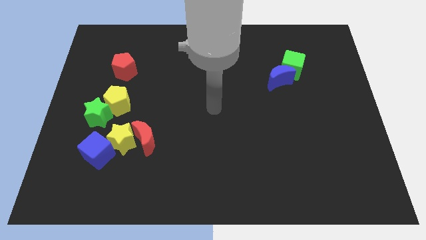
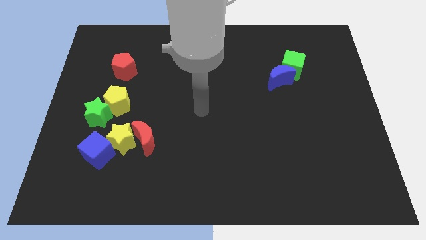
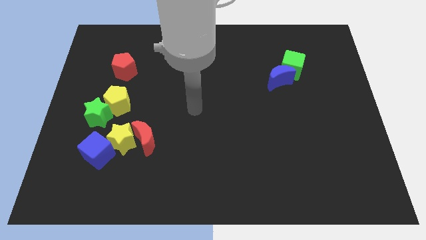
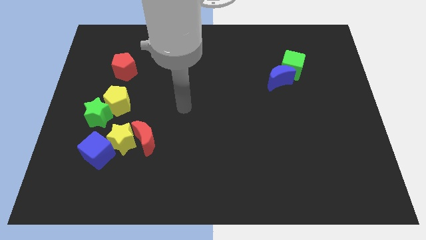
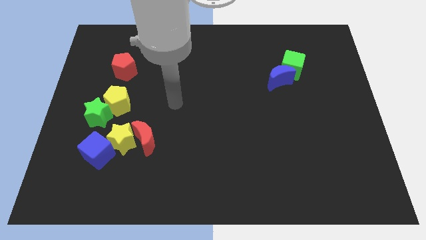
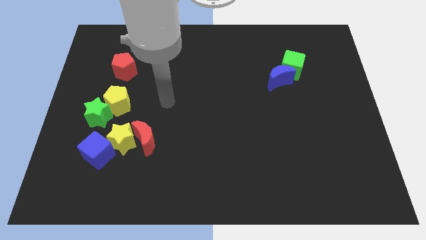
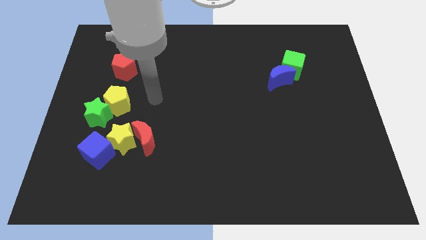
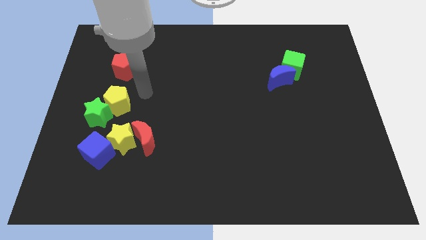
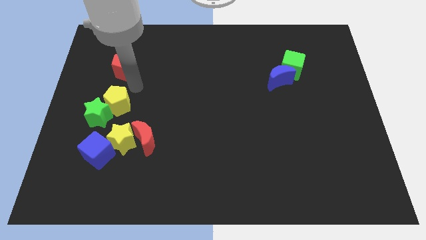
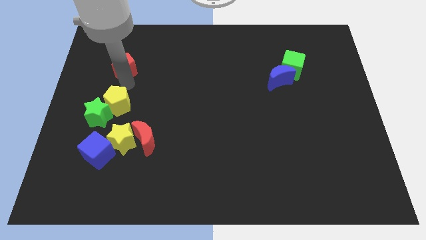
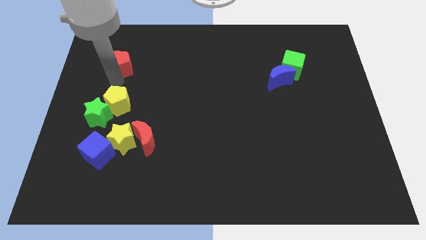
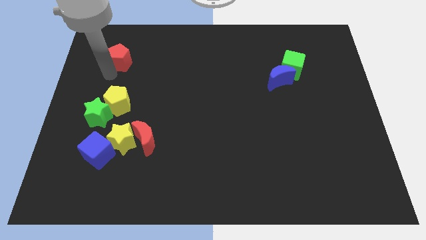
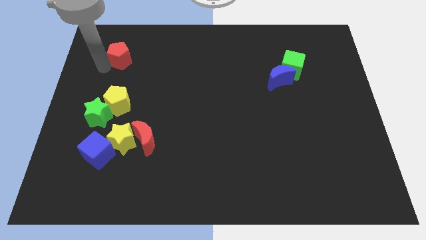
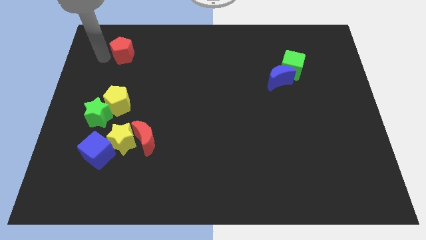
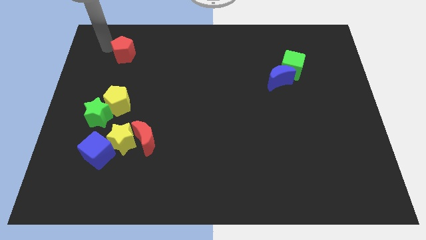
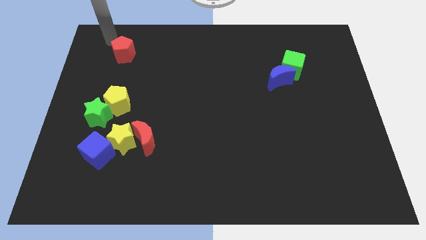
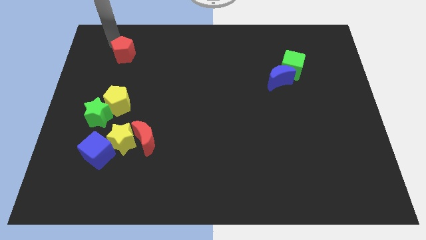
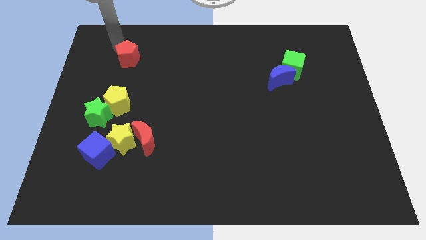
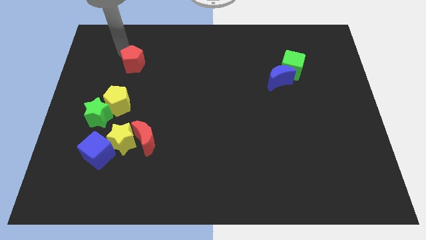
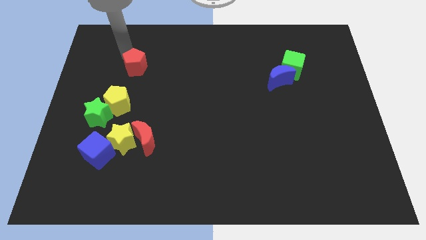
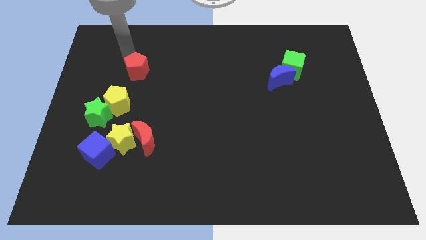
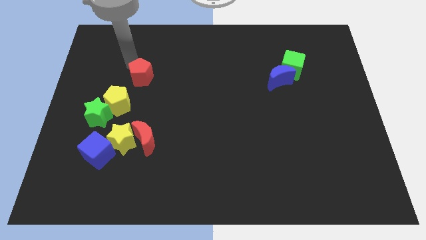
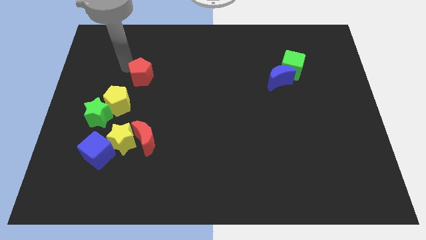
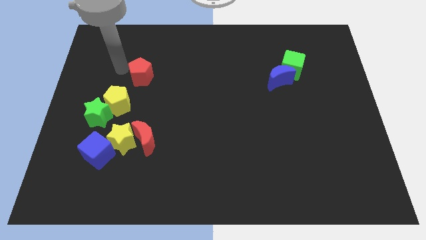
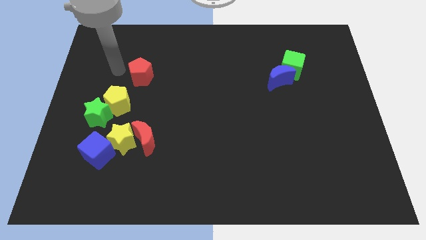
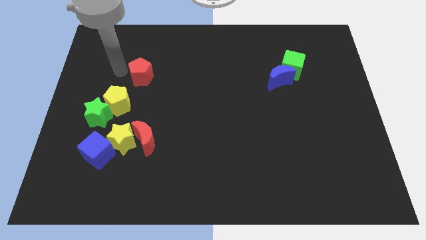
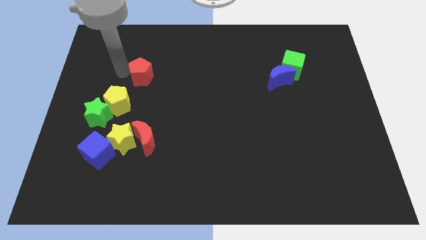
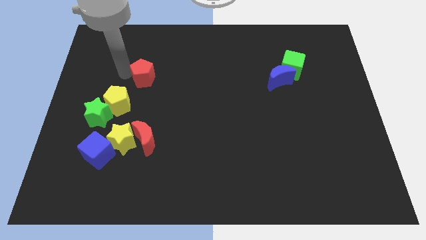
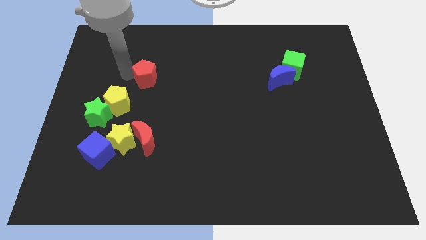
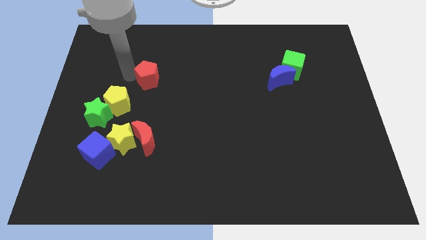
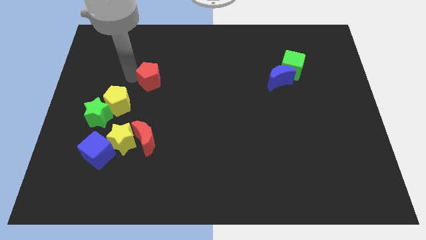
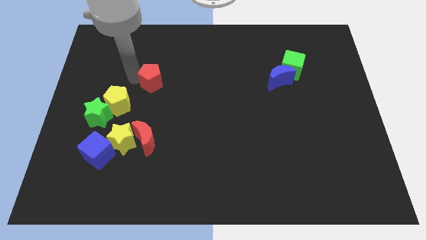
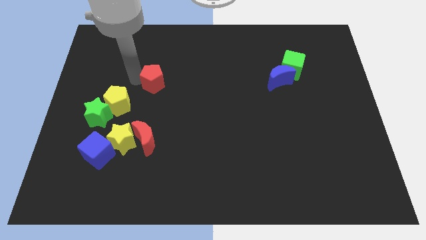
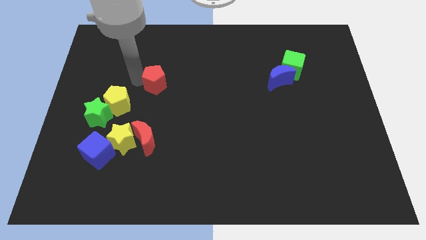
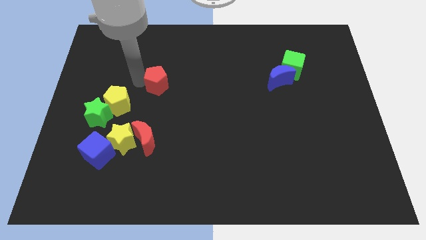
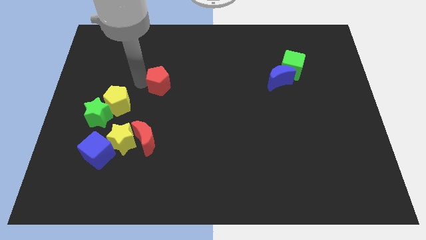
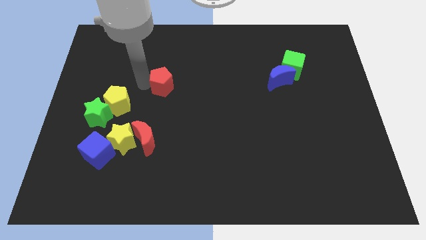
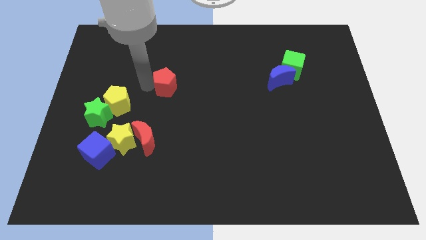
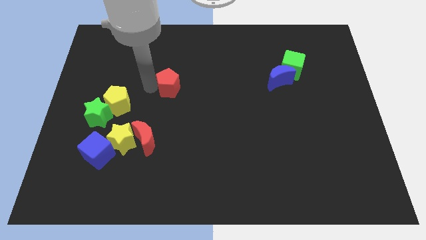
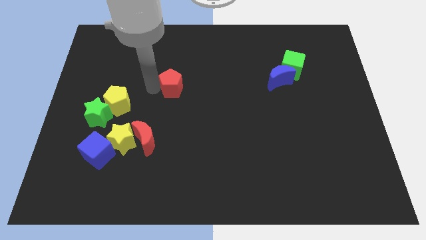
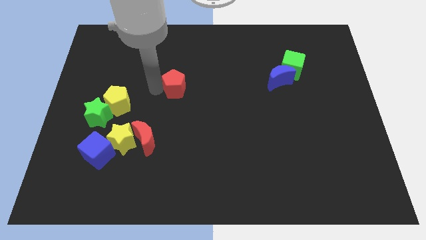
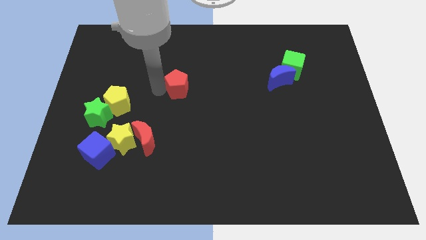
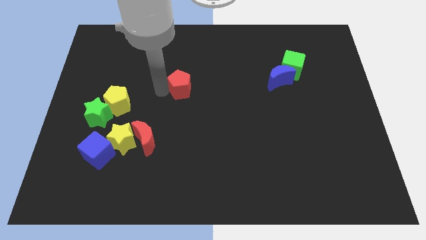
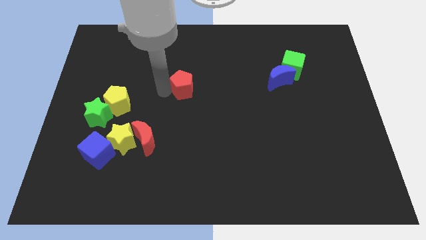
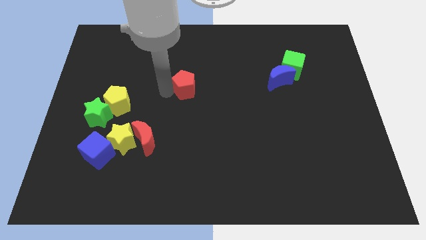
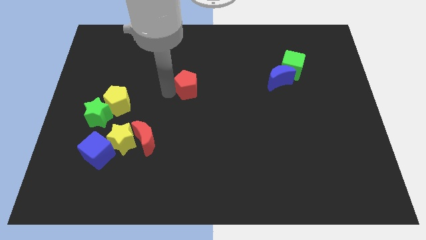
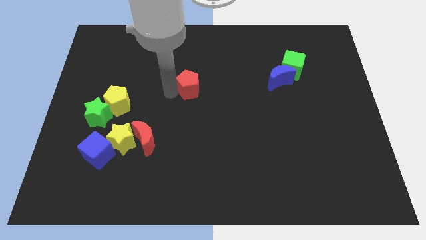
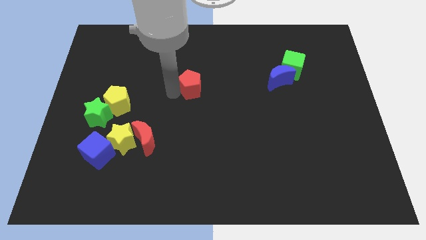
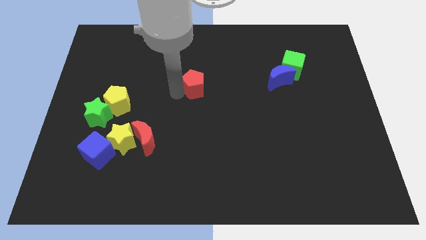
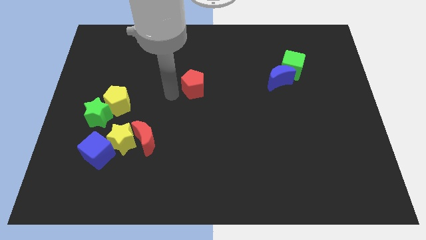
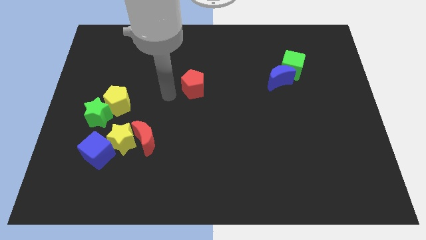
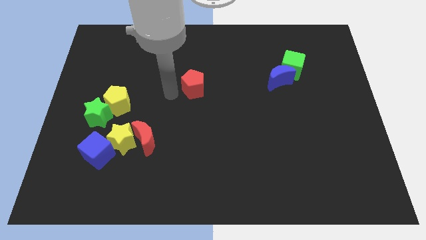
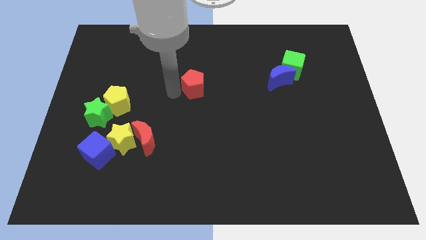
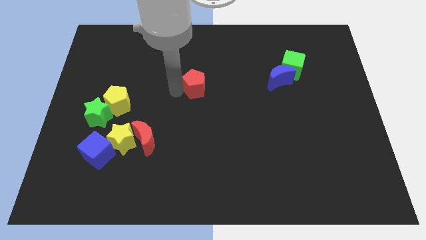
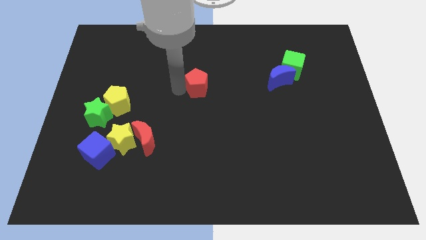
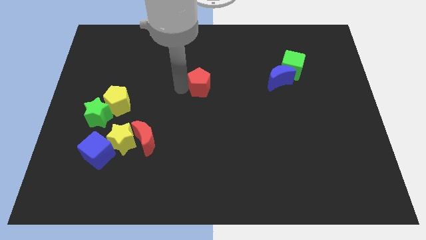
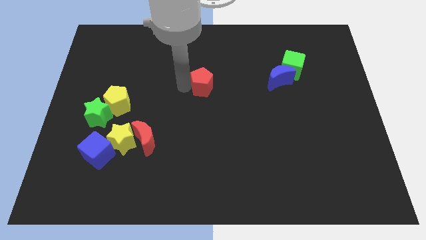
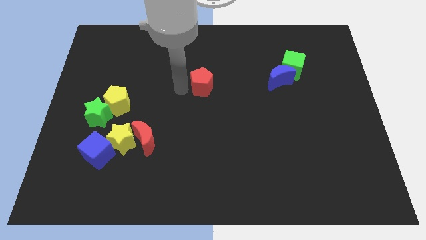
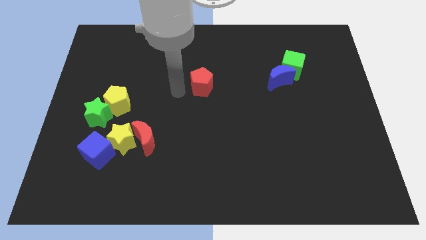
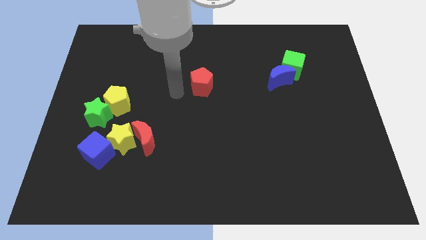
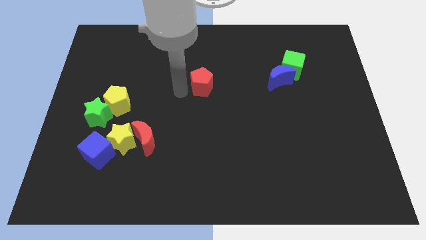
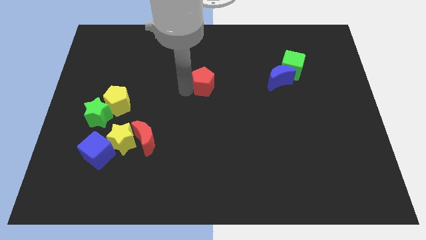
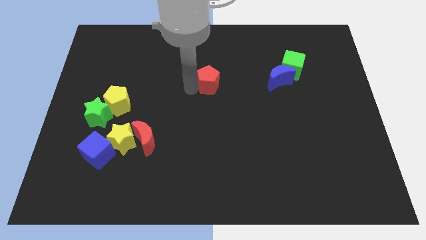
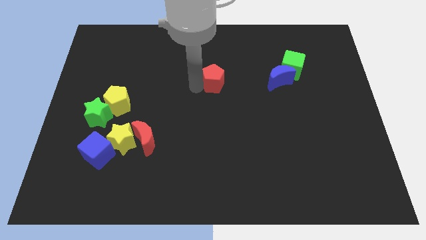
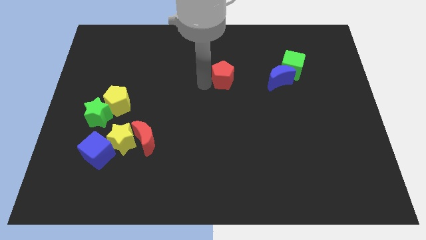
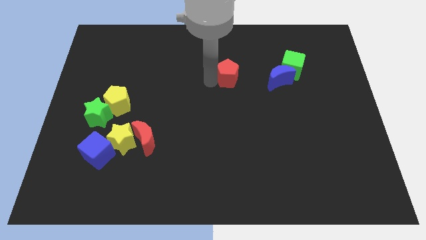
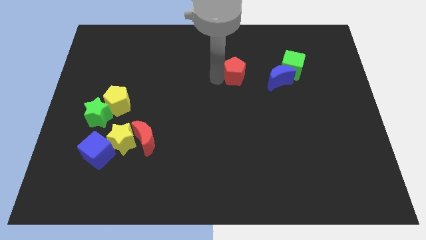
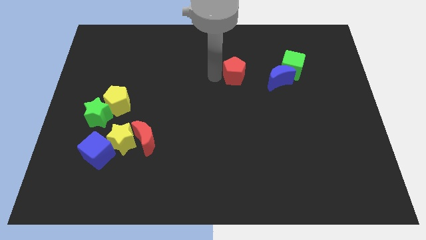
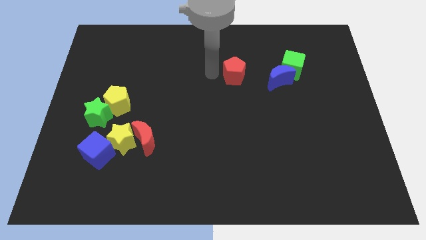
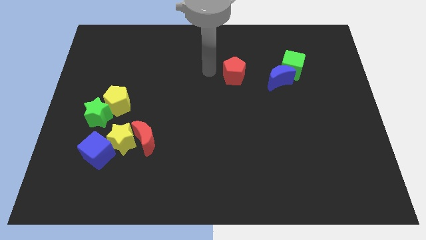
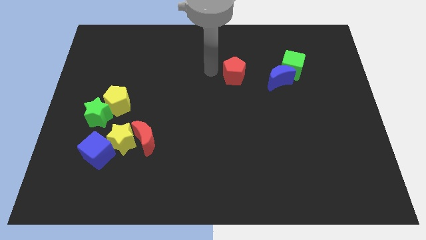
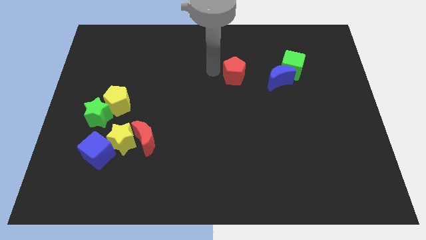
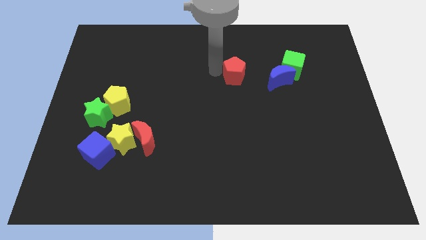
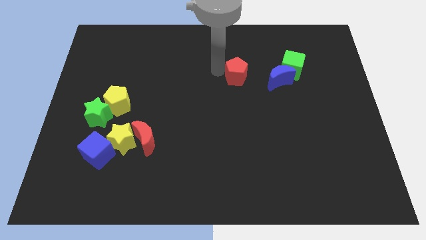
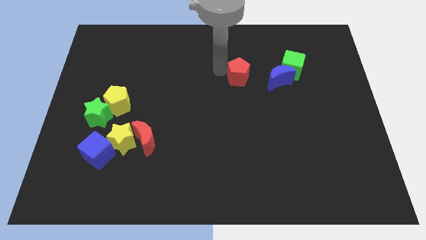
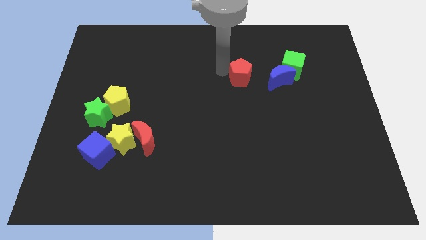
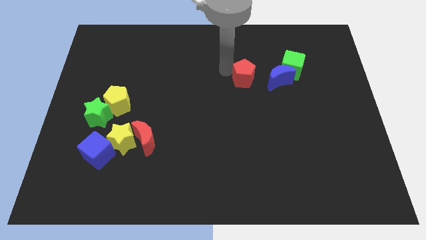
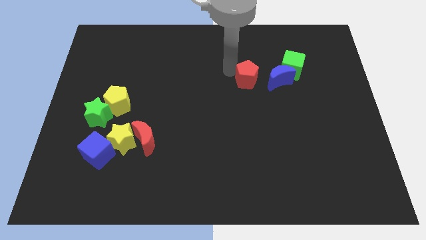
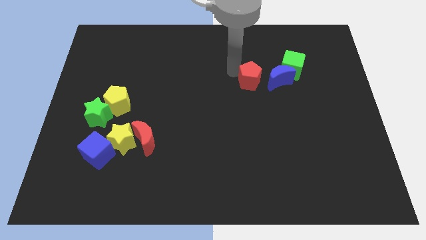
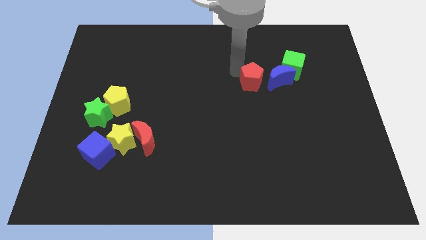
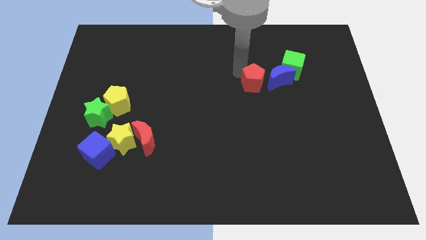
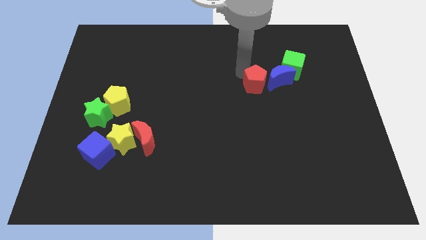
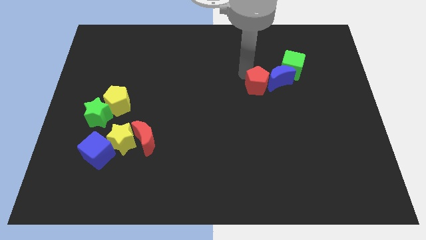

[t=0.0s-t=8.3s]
push the red pentagon towards the blue moon
